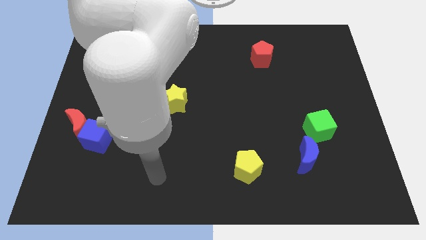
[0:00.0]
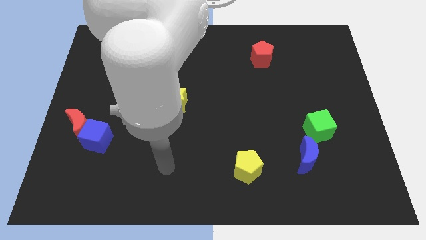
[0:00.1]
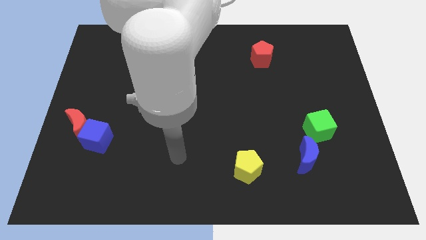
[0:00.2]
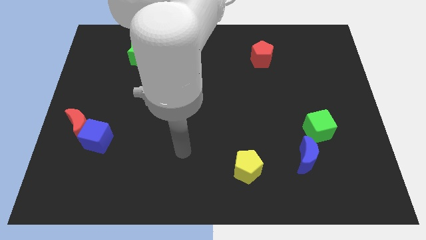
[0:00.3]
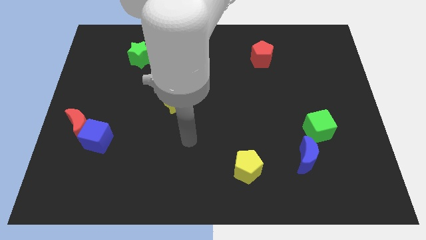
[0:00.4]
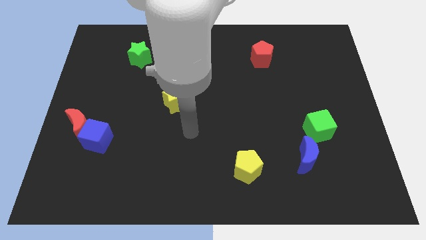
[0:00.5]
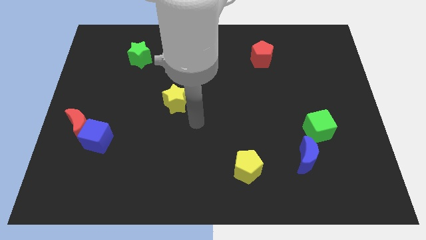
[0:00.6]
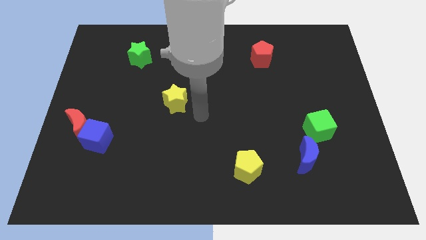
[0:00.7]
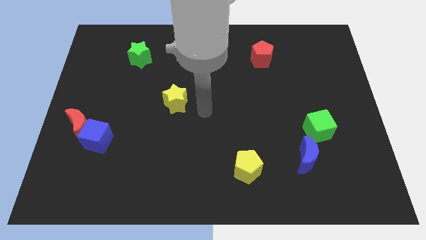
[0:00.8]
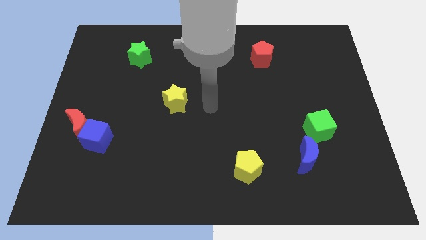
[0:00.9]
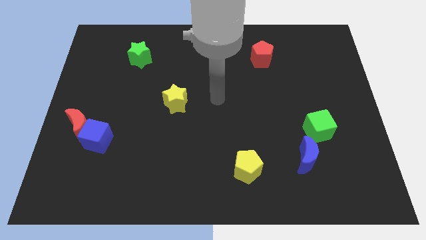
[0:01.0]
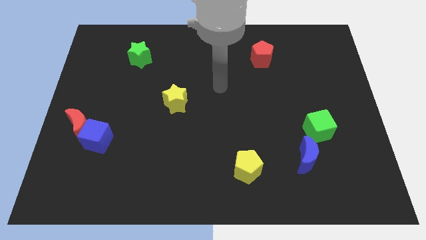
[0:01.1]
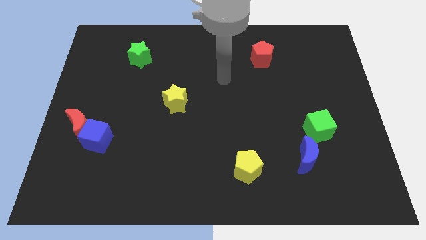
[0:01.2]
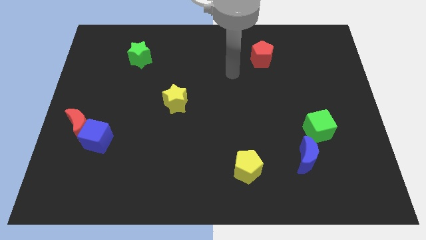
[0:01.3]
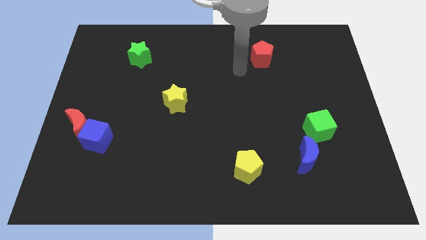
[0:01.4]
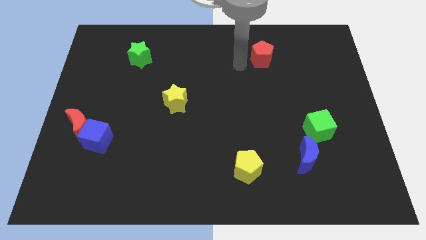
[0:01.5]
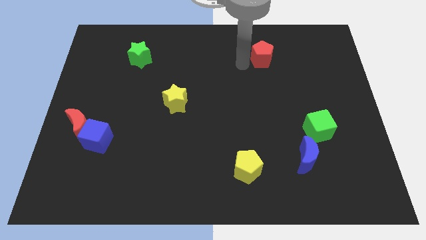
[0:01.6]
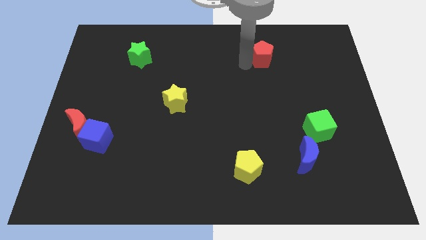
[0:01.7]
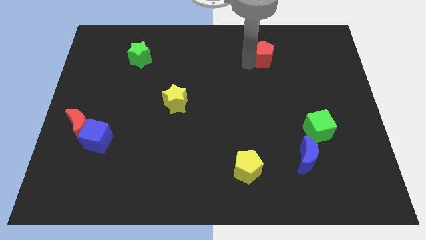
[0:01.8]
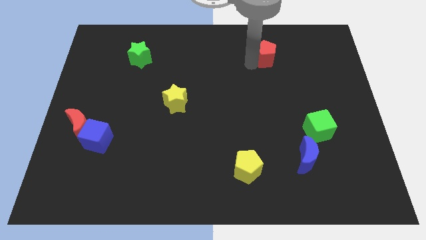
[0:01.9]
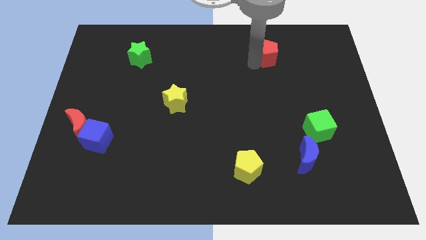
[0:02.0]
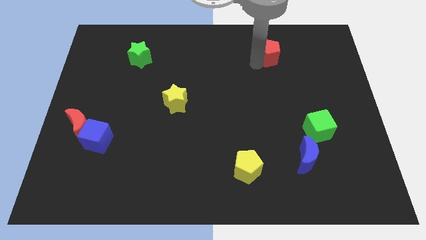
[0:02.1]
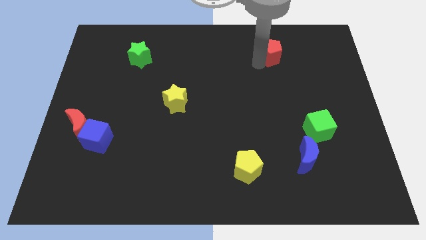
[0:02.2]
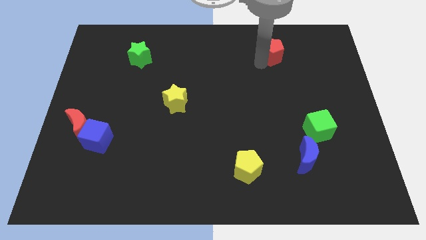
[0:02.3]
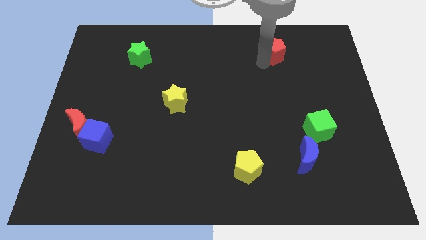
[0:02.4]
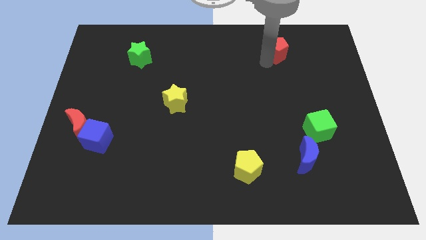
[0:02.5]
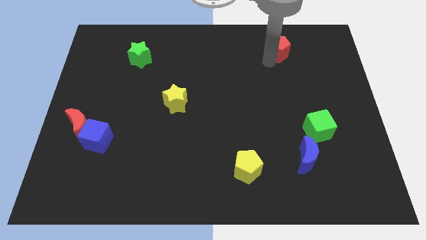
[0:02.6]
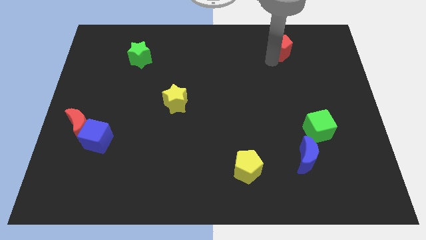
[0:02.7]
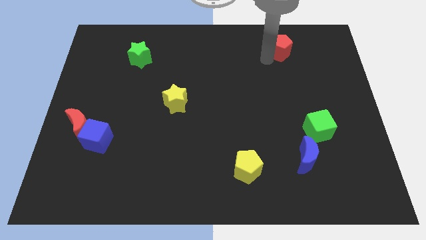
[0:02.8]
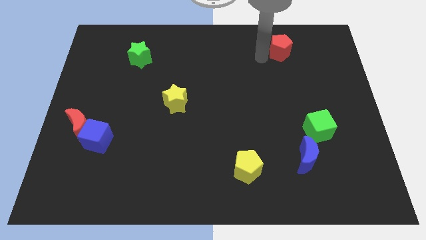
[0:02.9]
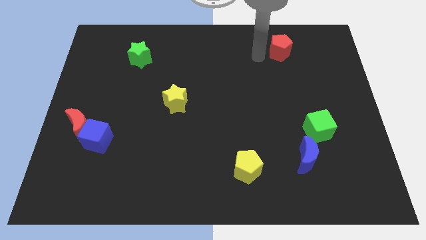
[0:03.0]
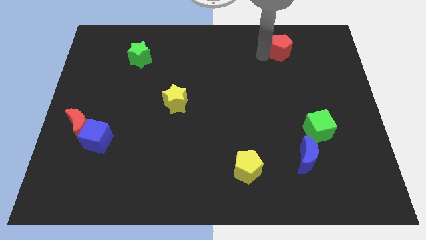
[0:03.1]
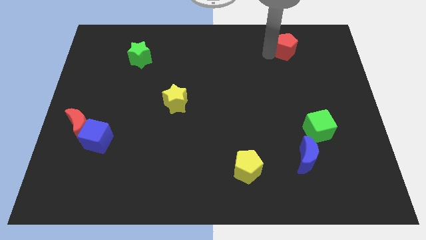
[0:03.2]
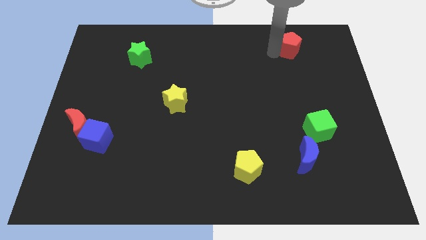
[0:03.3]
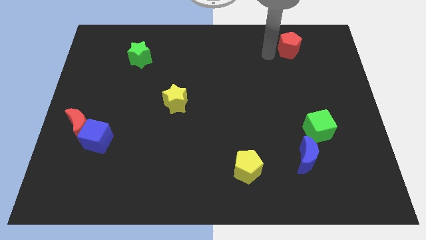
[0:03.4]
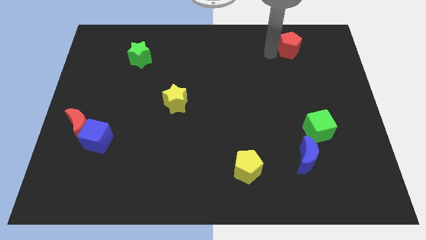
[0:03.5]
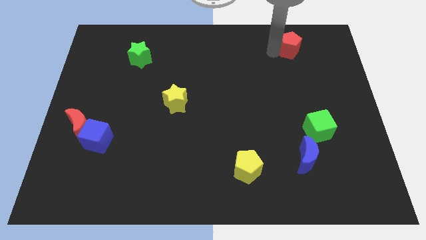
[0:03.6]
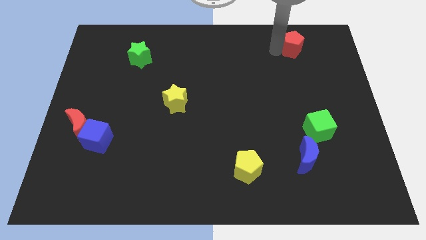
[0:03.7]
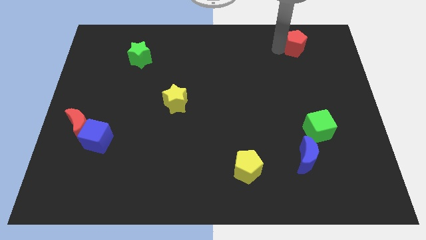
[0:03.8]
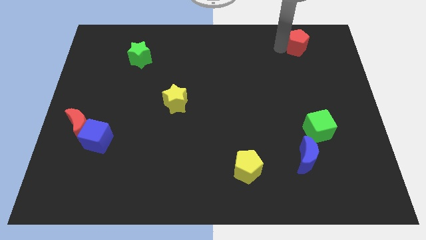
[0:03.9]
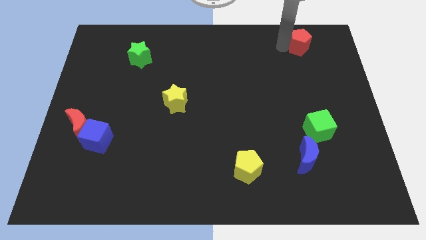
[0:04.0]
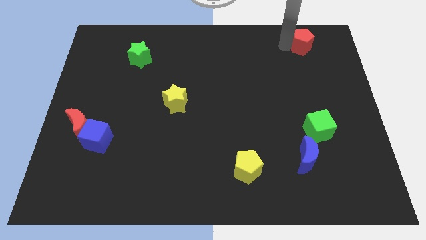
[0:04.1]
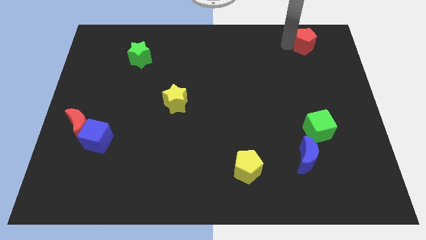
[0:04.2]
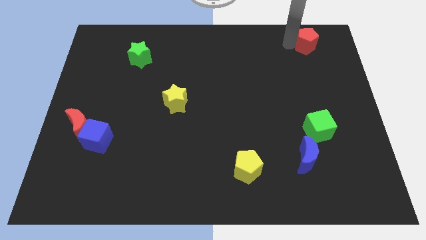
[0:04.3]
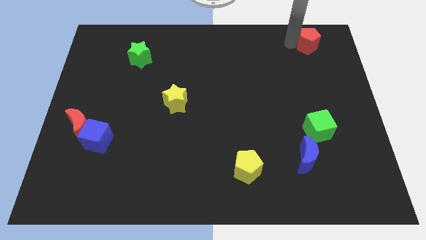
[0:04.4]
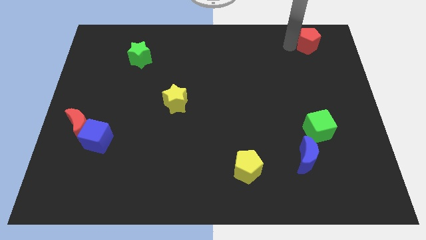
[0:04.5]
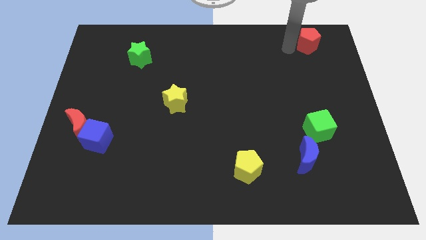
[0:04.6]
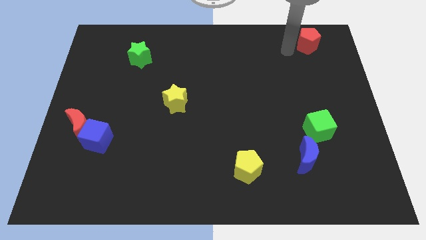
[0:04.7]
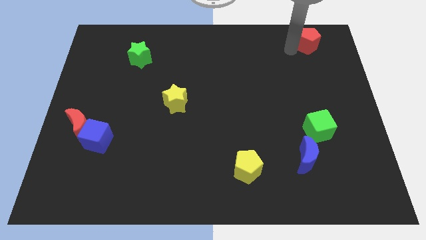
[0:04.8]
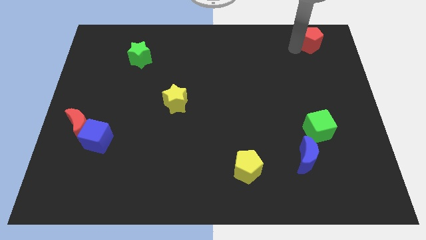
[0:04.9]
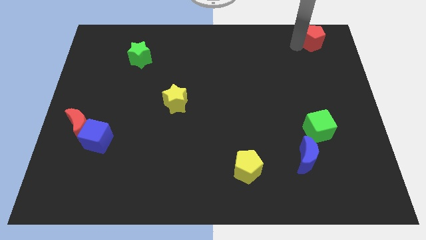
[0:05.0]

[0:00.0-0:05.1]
slide the red pentagon to the top right

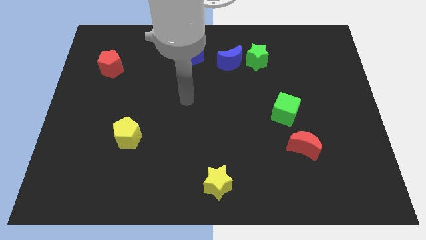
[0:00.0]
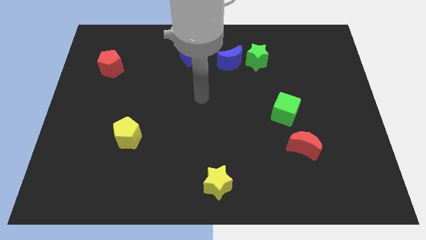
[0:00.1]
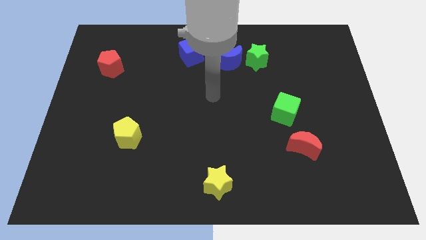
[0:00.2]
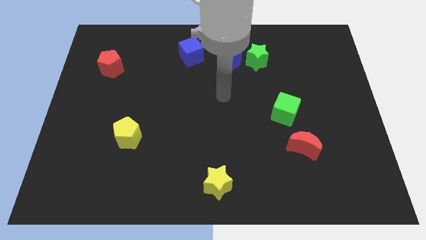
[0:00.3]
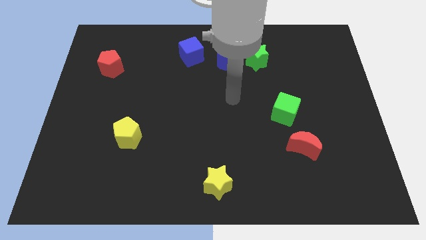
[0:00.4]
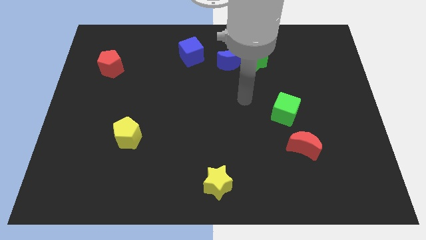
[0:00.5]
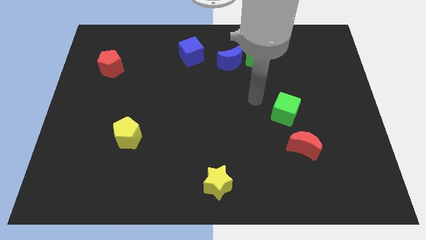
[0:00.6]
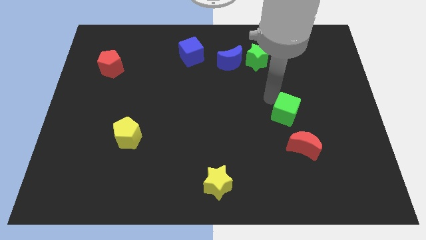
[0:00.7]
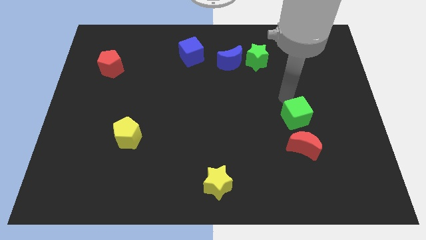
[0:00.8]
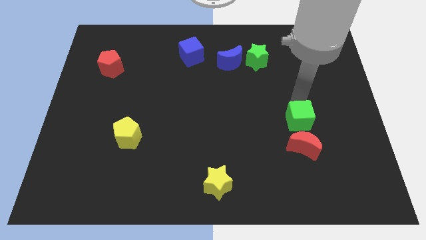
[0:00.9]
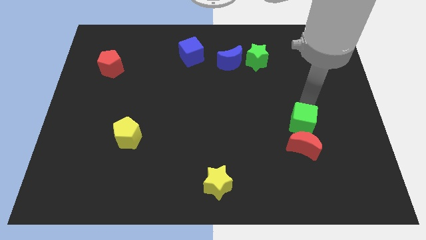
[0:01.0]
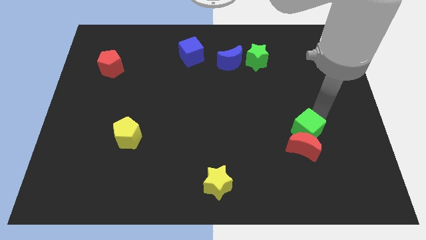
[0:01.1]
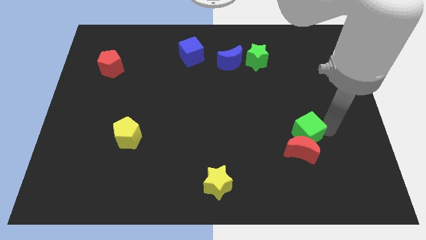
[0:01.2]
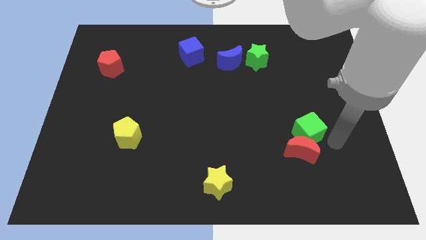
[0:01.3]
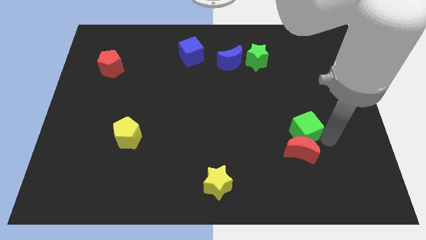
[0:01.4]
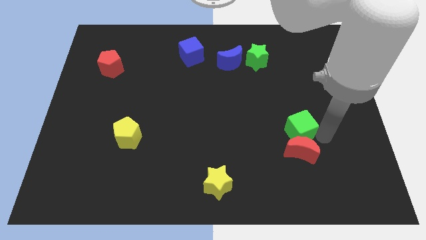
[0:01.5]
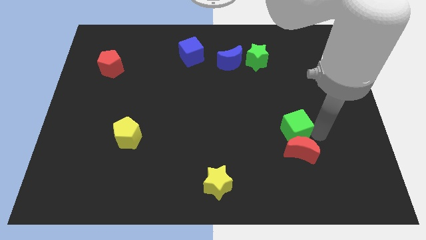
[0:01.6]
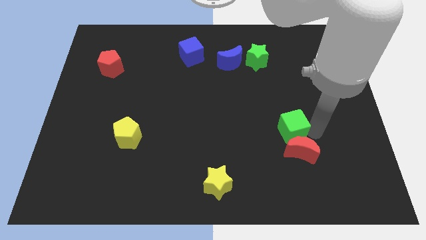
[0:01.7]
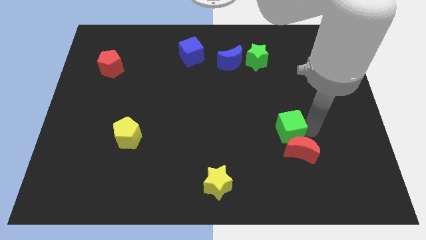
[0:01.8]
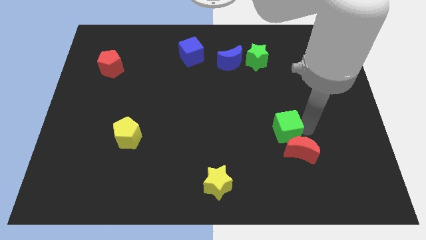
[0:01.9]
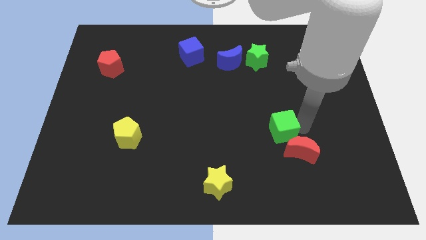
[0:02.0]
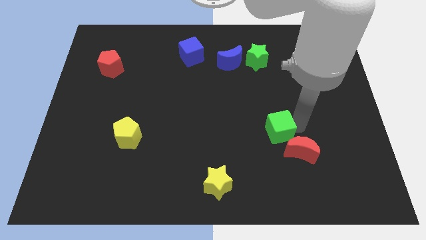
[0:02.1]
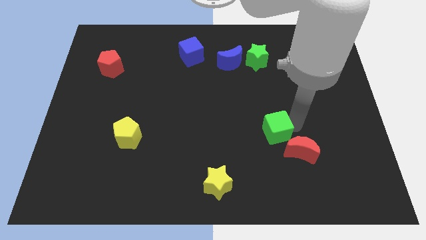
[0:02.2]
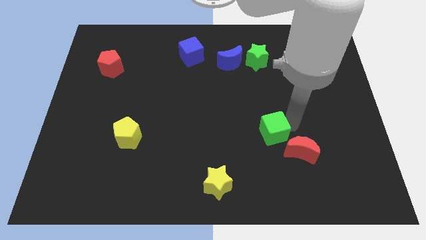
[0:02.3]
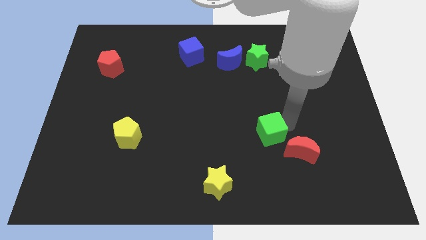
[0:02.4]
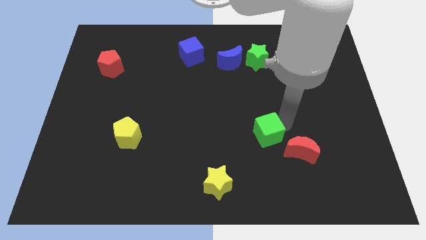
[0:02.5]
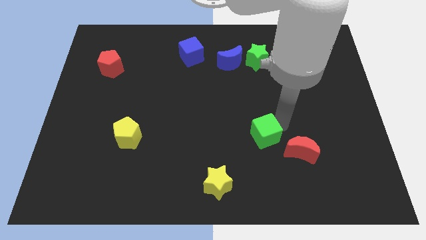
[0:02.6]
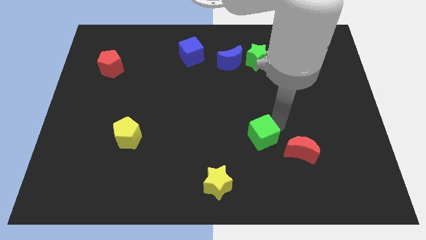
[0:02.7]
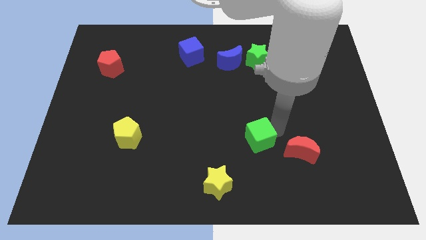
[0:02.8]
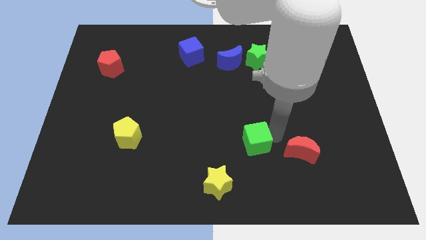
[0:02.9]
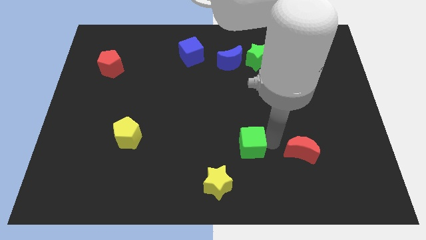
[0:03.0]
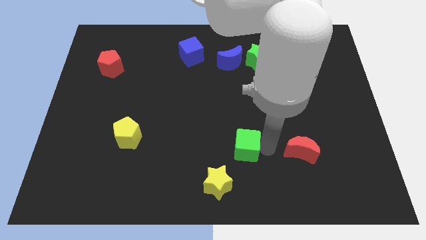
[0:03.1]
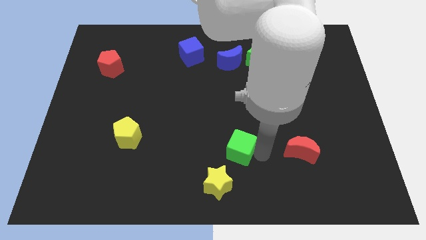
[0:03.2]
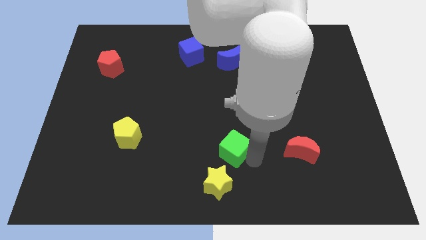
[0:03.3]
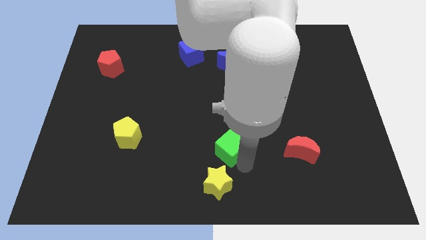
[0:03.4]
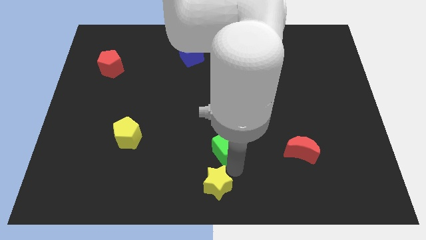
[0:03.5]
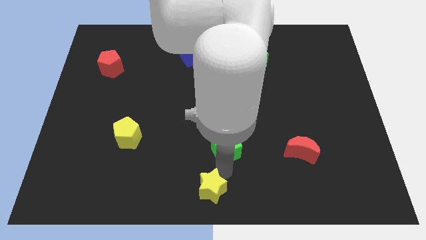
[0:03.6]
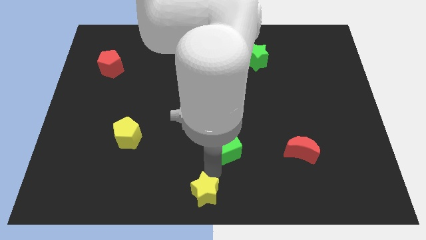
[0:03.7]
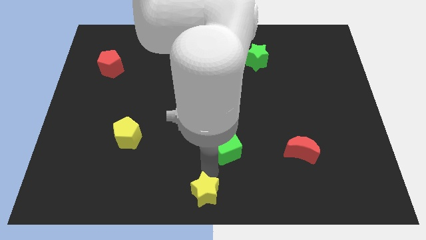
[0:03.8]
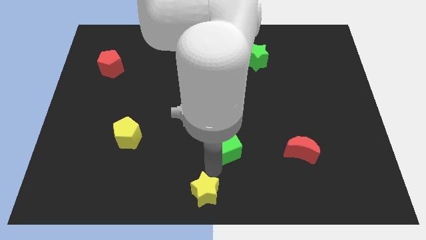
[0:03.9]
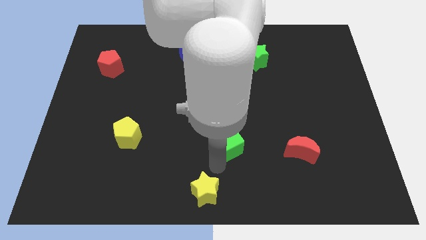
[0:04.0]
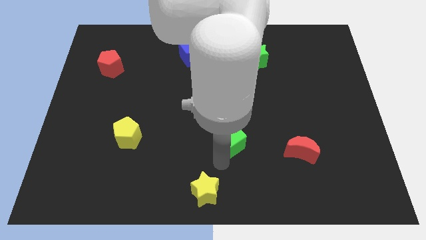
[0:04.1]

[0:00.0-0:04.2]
move the green cube to the middle
